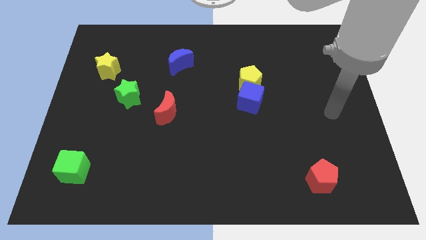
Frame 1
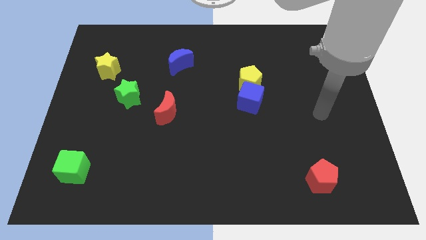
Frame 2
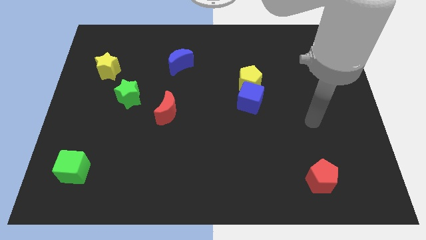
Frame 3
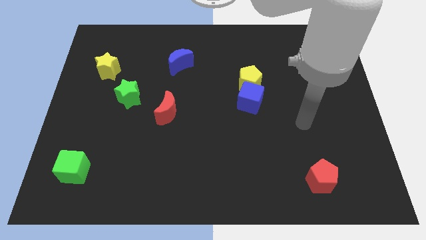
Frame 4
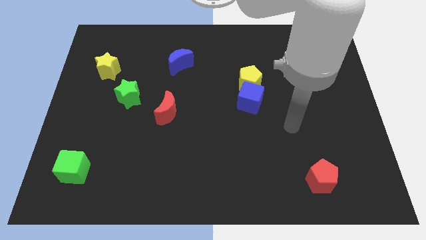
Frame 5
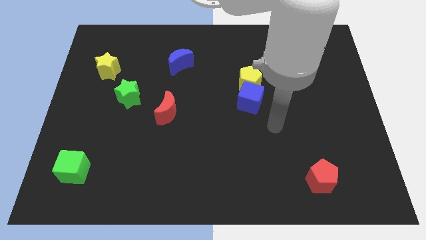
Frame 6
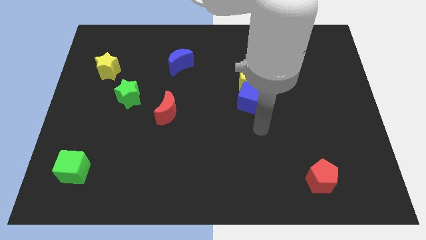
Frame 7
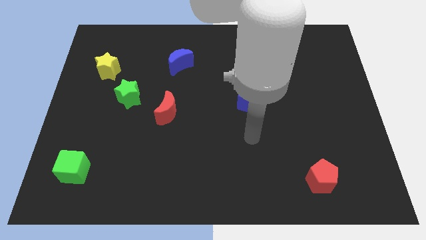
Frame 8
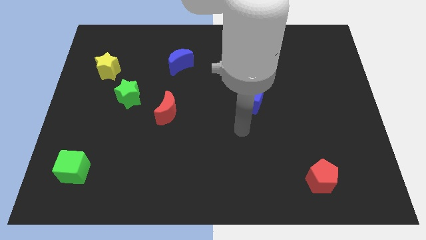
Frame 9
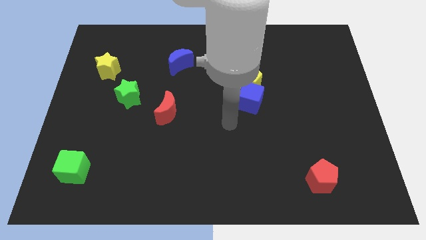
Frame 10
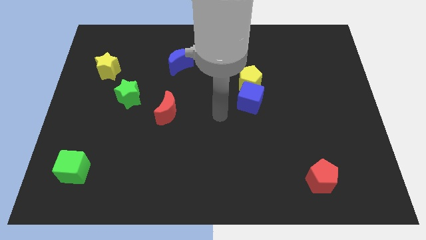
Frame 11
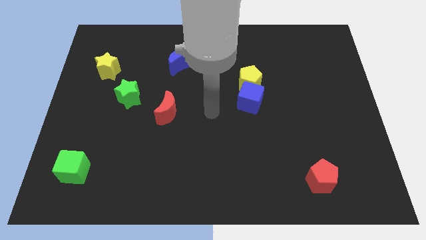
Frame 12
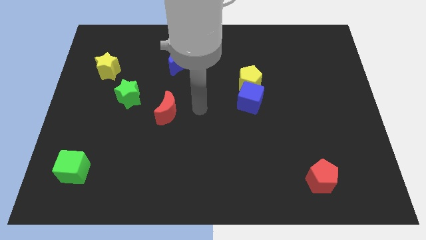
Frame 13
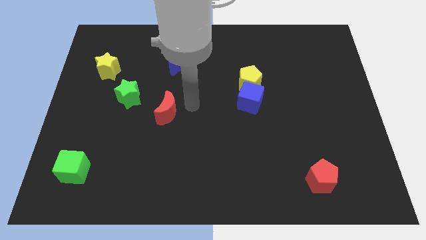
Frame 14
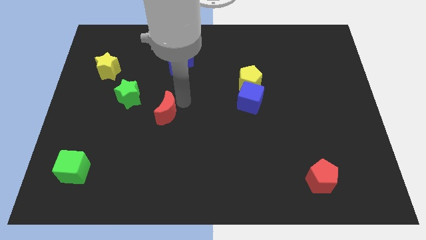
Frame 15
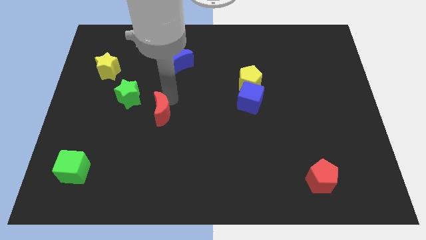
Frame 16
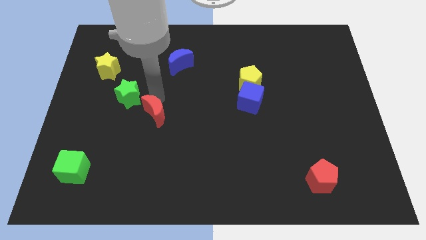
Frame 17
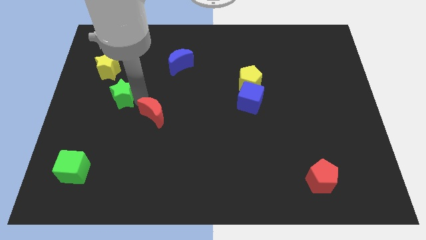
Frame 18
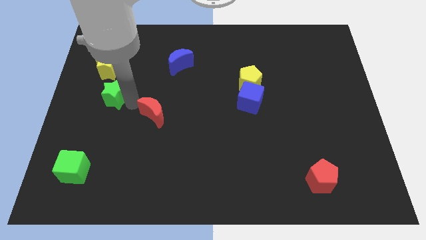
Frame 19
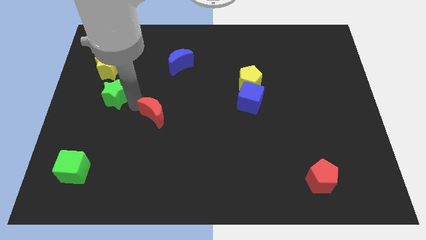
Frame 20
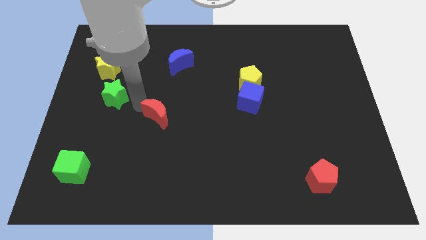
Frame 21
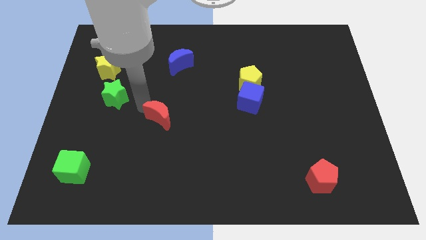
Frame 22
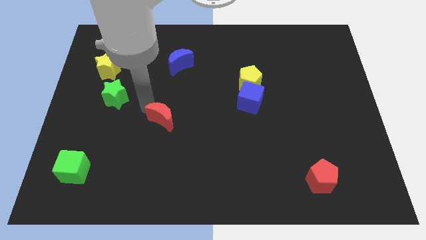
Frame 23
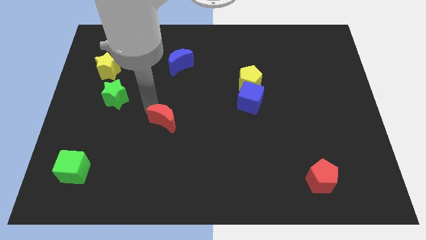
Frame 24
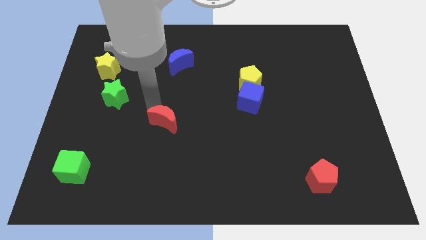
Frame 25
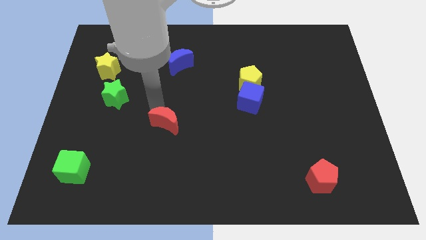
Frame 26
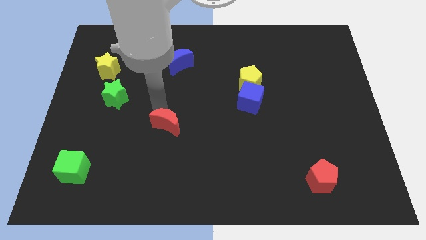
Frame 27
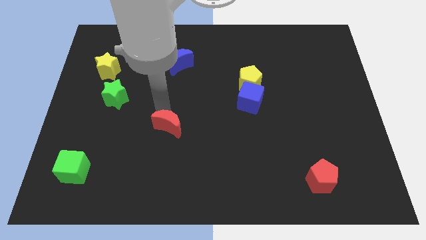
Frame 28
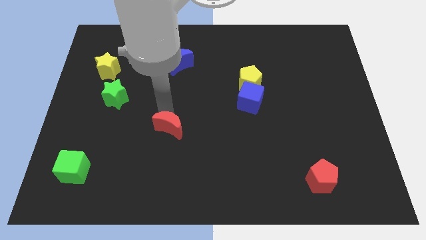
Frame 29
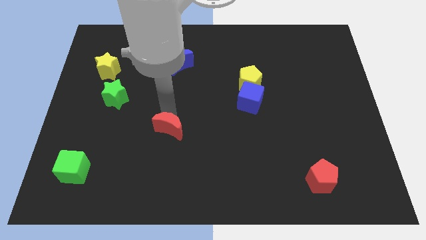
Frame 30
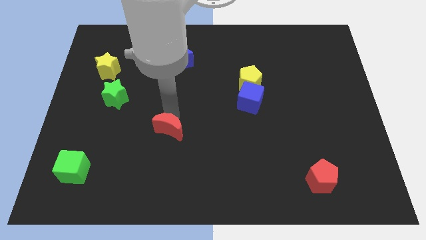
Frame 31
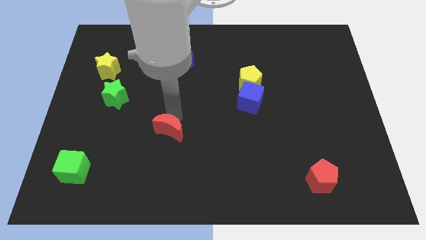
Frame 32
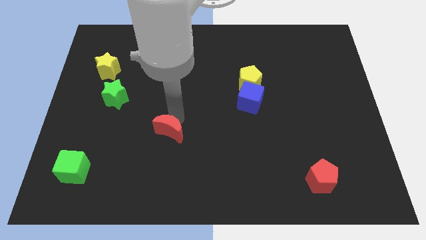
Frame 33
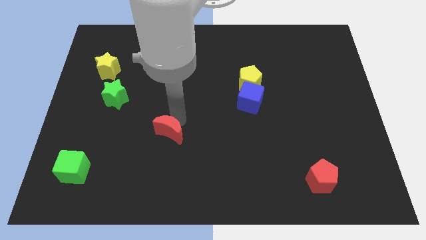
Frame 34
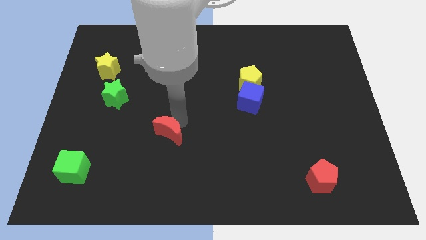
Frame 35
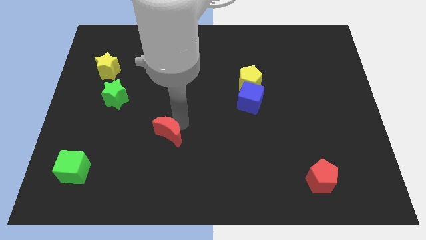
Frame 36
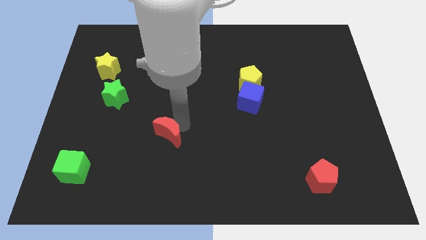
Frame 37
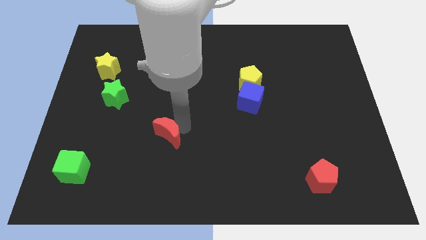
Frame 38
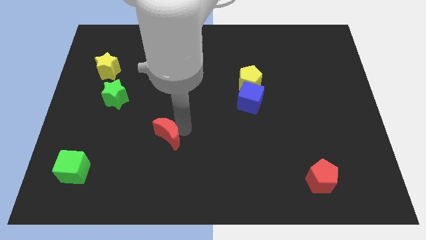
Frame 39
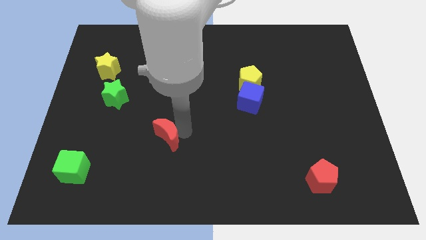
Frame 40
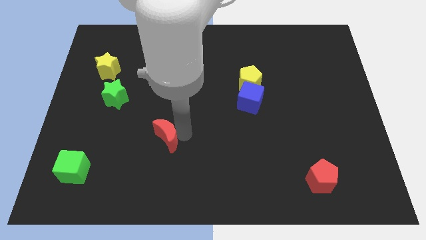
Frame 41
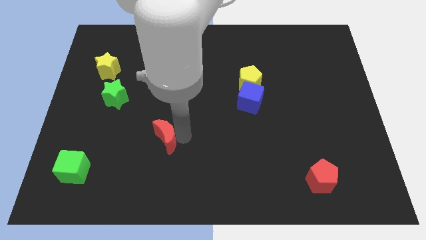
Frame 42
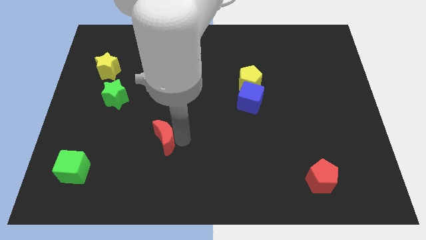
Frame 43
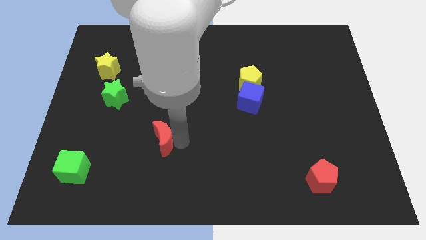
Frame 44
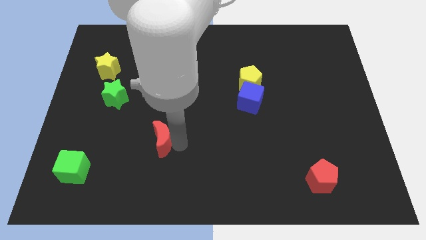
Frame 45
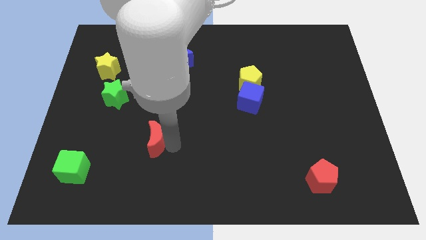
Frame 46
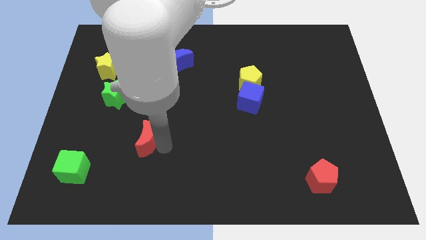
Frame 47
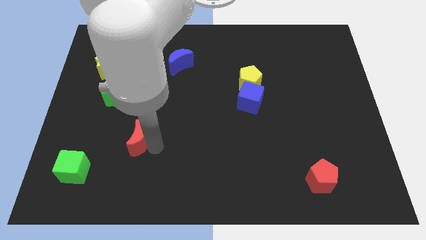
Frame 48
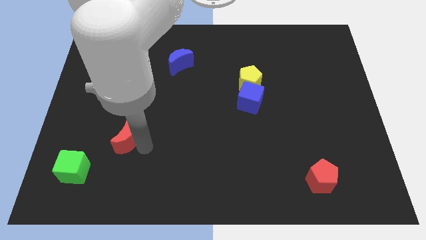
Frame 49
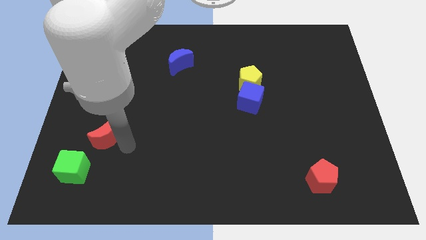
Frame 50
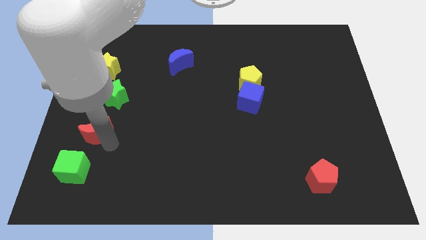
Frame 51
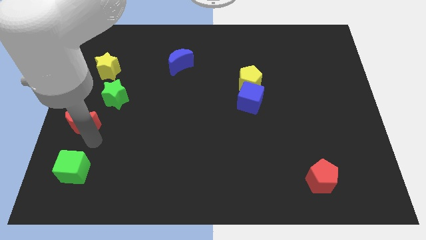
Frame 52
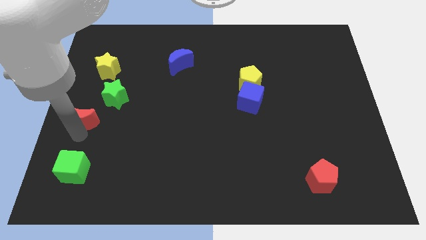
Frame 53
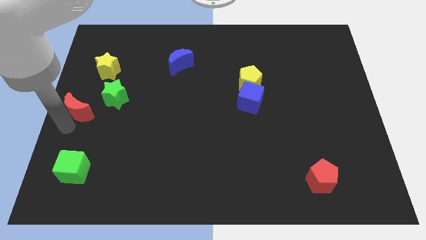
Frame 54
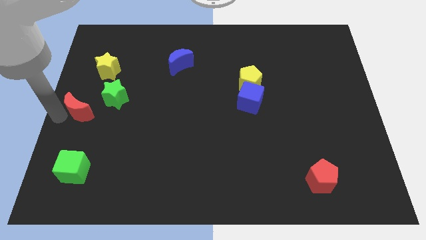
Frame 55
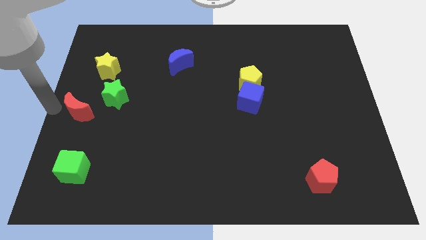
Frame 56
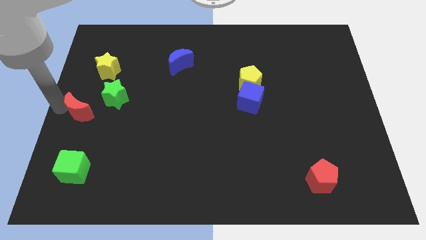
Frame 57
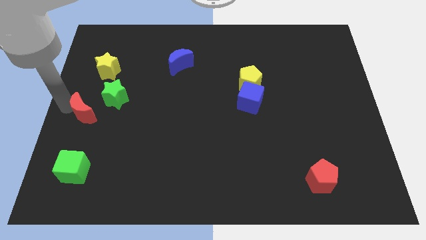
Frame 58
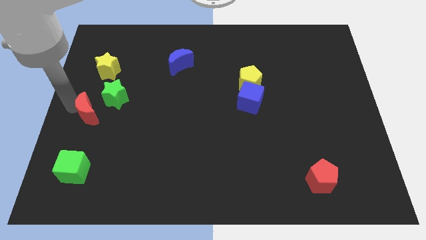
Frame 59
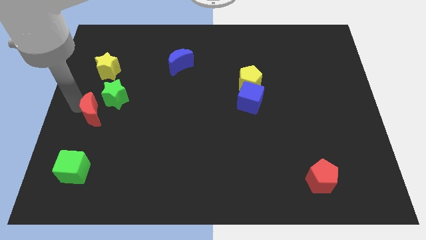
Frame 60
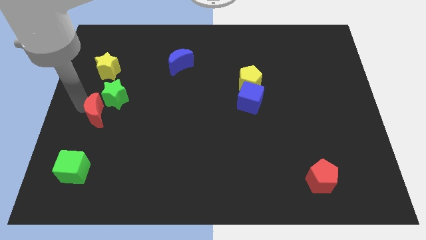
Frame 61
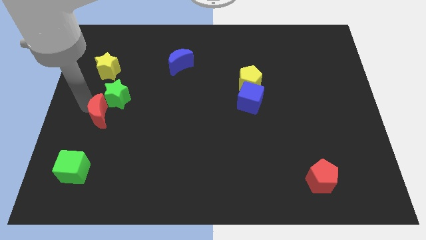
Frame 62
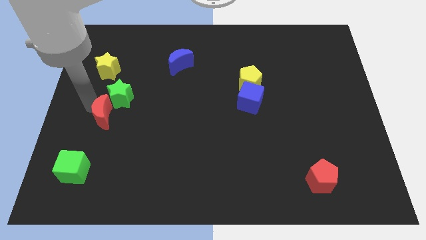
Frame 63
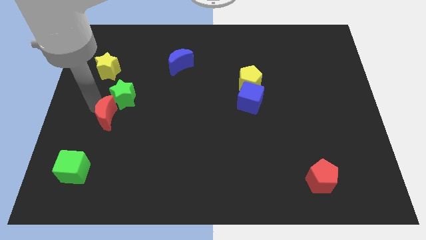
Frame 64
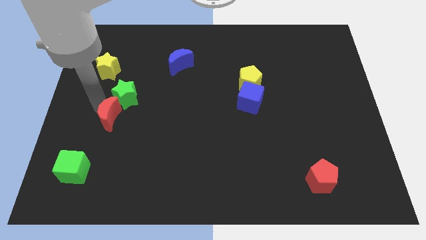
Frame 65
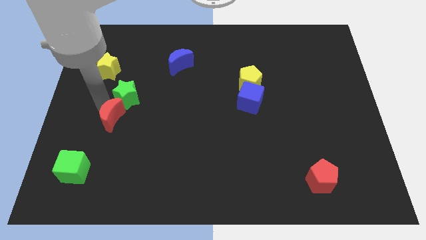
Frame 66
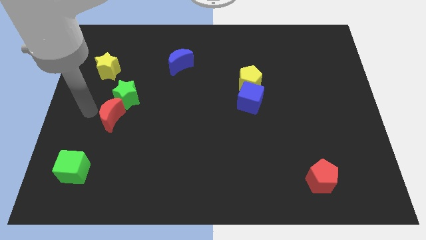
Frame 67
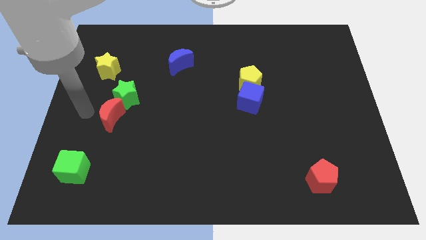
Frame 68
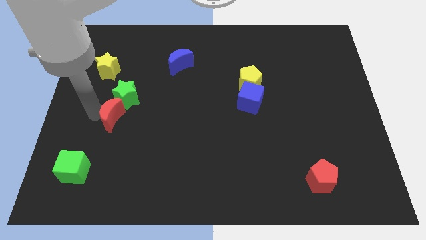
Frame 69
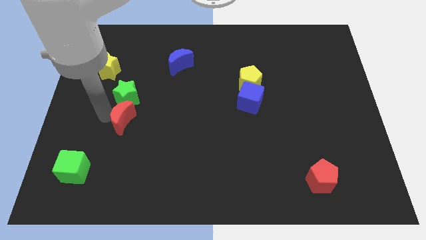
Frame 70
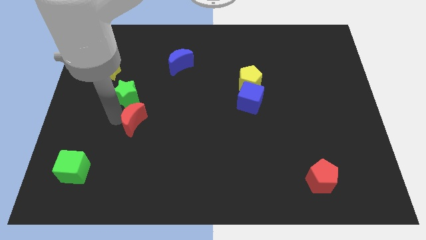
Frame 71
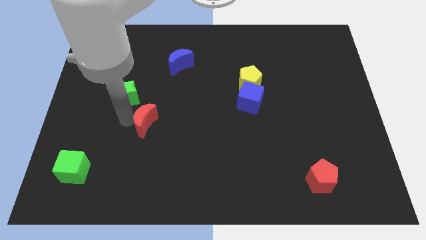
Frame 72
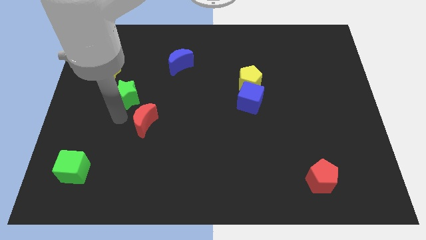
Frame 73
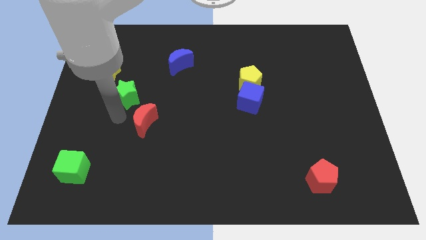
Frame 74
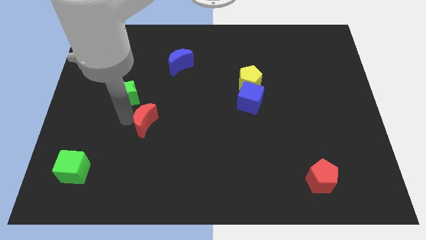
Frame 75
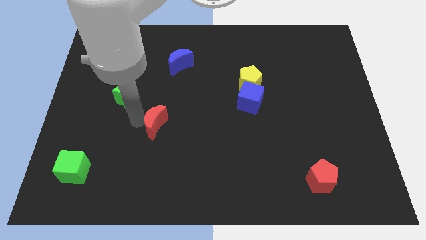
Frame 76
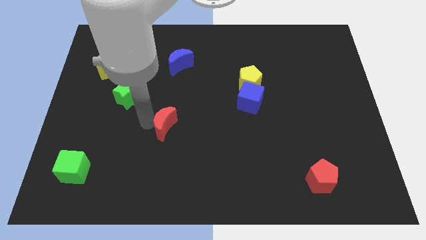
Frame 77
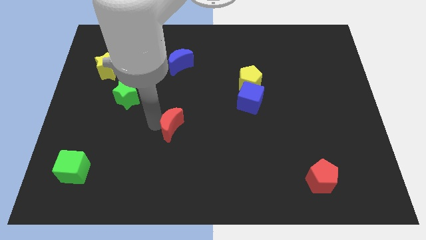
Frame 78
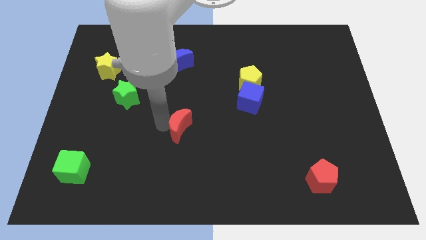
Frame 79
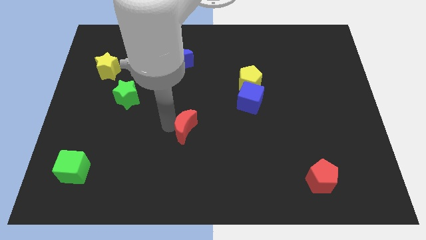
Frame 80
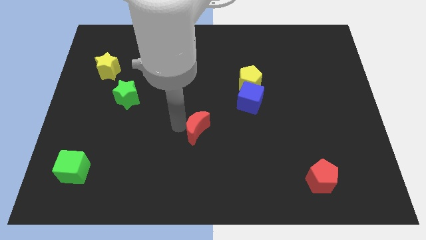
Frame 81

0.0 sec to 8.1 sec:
move the red moon downwards and then right a little
